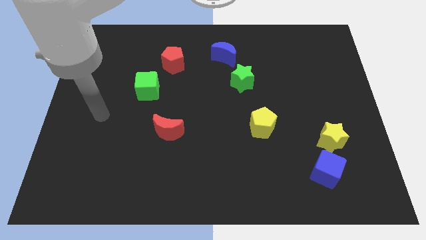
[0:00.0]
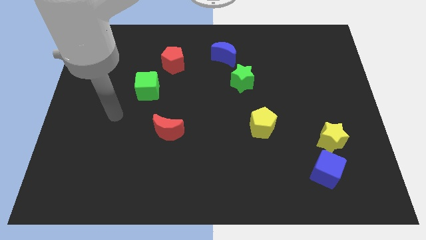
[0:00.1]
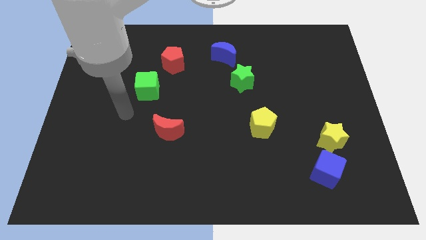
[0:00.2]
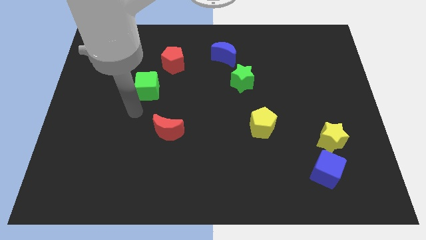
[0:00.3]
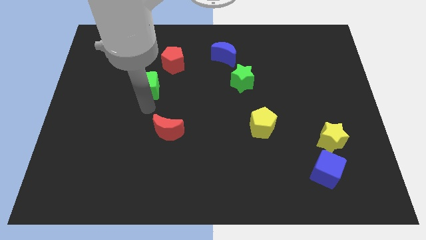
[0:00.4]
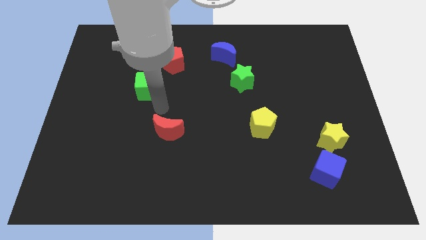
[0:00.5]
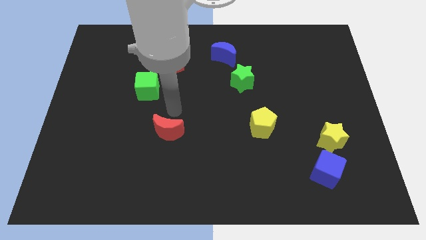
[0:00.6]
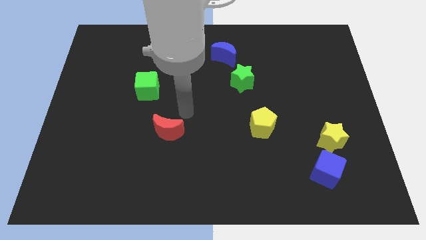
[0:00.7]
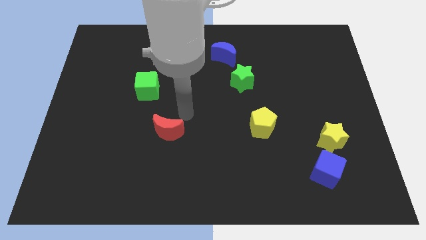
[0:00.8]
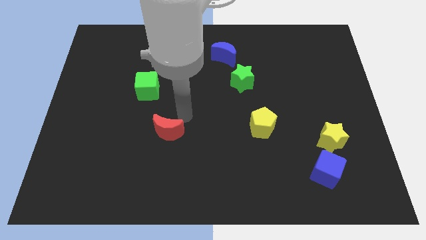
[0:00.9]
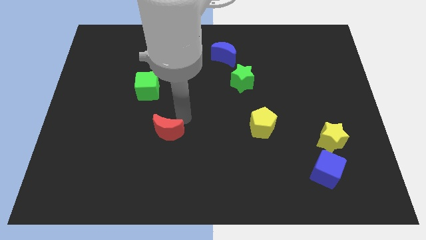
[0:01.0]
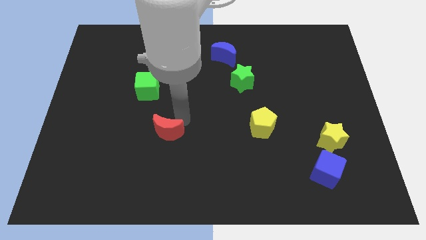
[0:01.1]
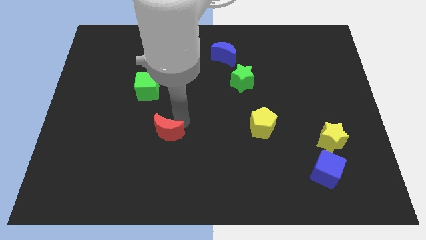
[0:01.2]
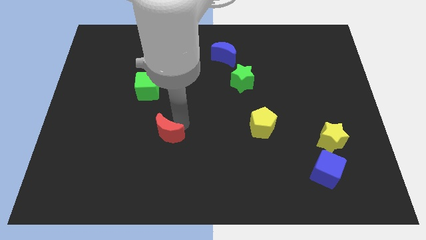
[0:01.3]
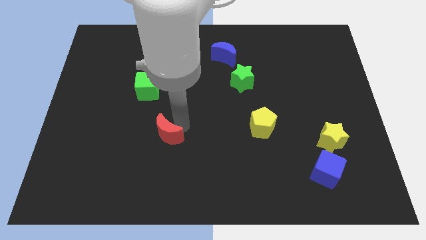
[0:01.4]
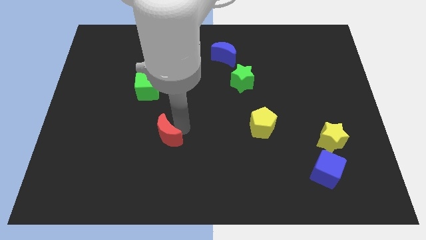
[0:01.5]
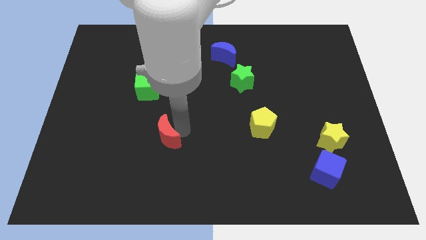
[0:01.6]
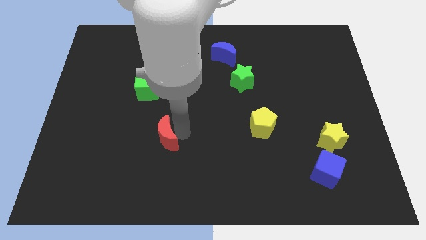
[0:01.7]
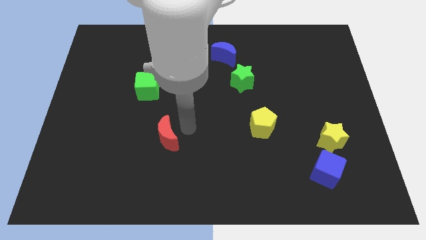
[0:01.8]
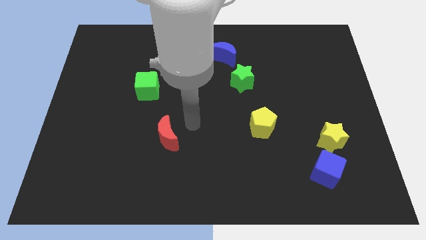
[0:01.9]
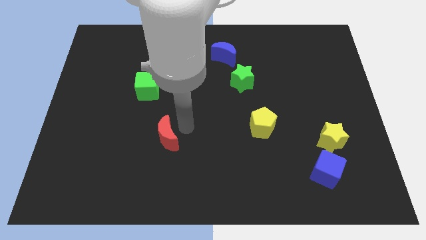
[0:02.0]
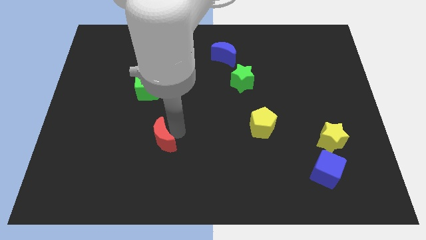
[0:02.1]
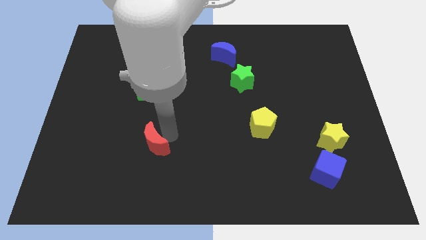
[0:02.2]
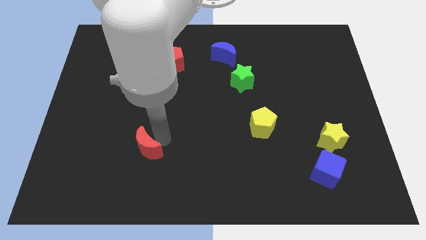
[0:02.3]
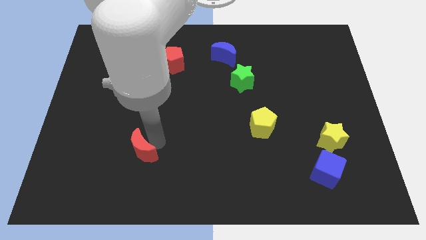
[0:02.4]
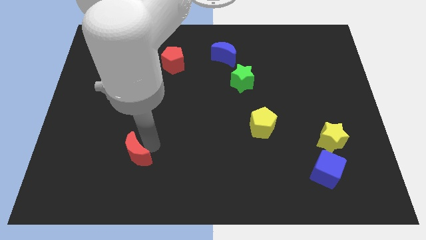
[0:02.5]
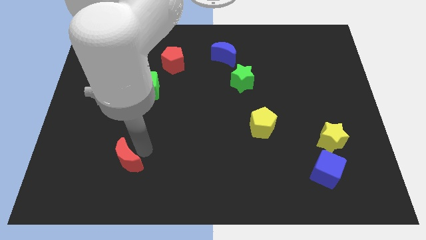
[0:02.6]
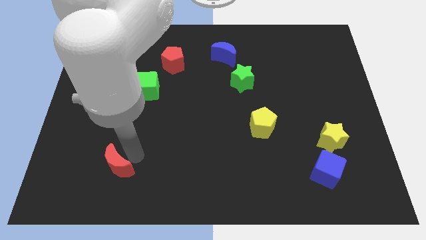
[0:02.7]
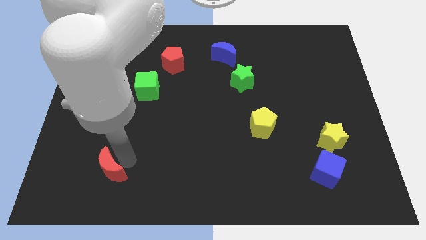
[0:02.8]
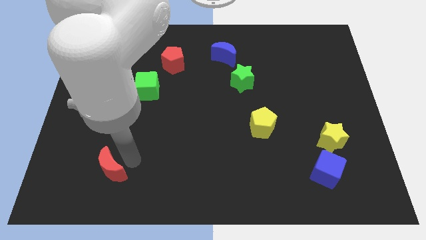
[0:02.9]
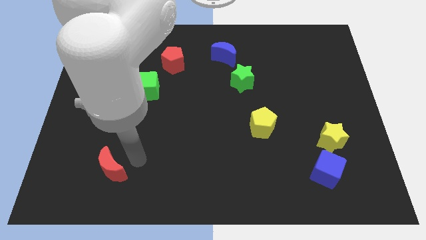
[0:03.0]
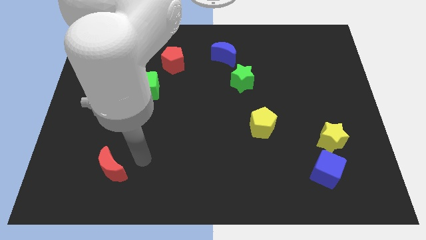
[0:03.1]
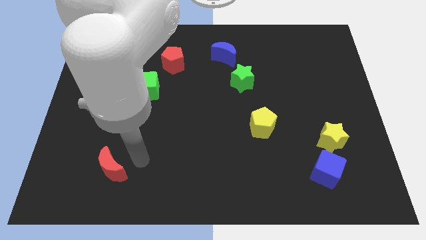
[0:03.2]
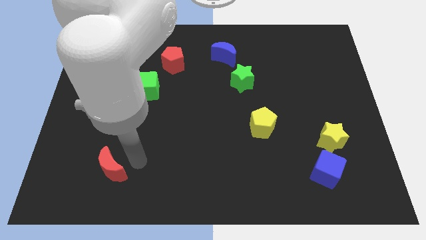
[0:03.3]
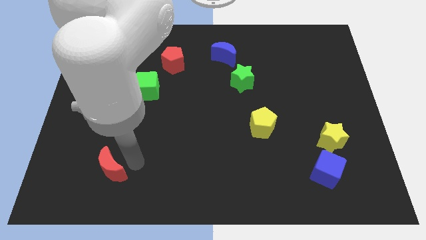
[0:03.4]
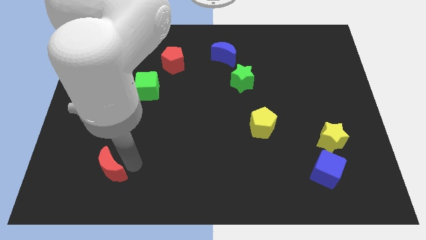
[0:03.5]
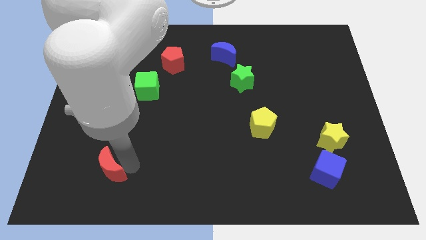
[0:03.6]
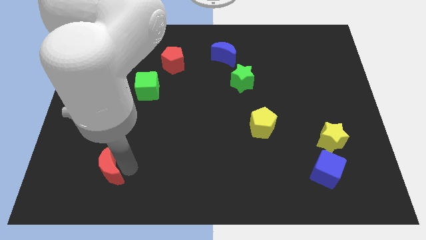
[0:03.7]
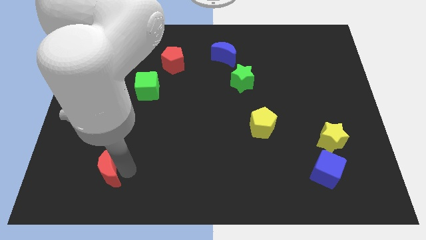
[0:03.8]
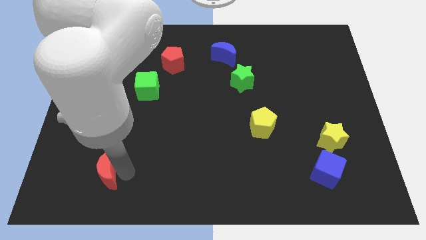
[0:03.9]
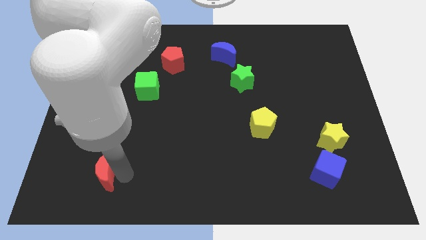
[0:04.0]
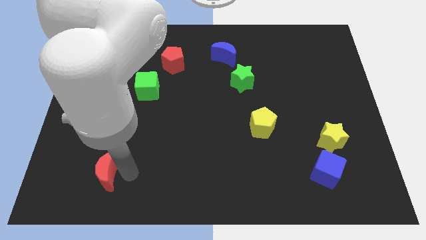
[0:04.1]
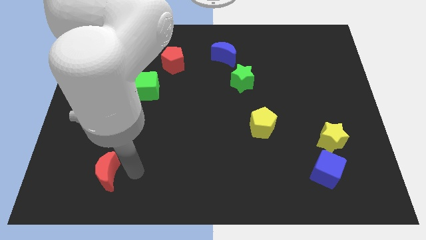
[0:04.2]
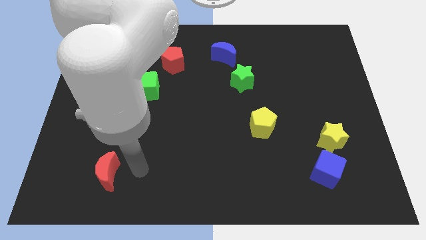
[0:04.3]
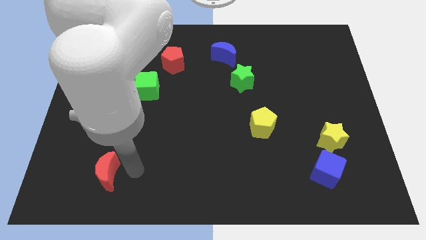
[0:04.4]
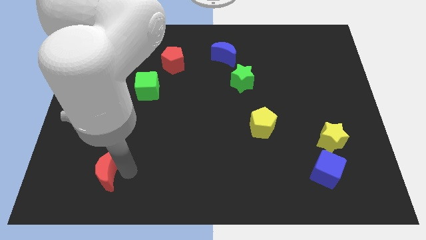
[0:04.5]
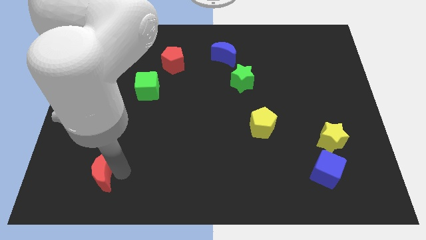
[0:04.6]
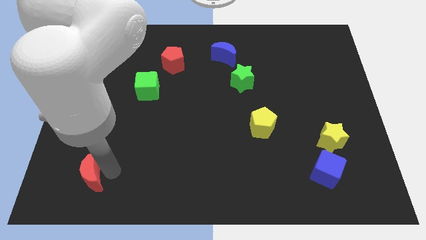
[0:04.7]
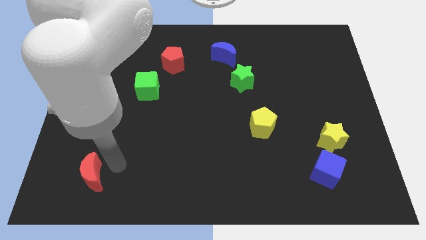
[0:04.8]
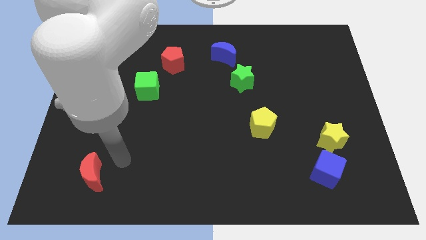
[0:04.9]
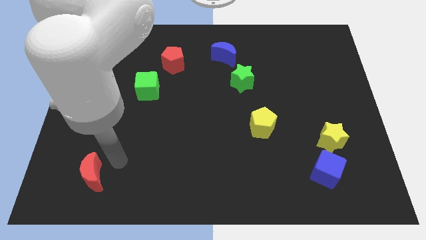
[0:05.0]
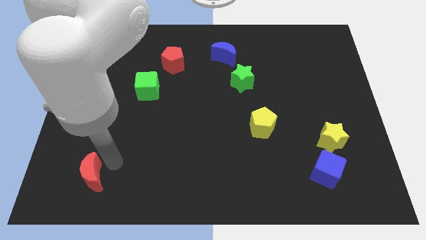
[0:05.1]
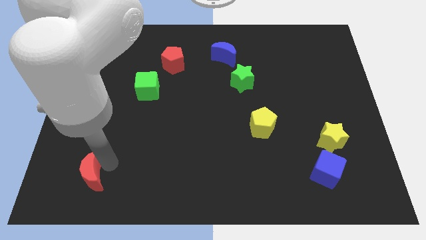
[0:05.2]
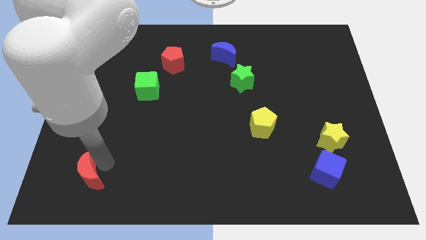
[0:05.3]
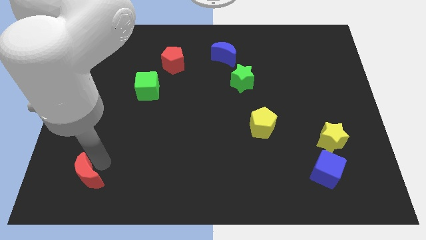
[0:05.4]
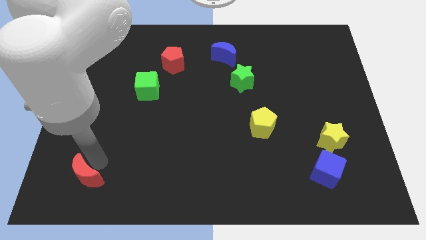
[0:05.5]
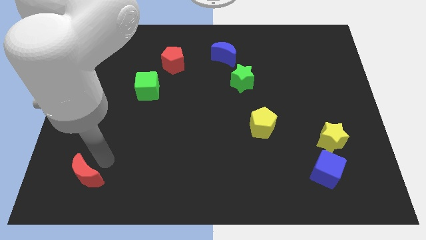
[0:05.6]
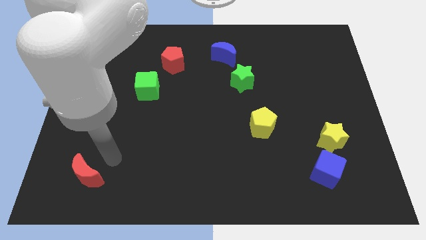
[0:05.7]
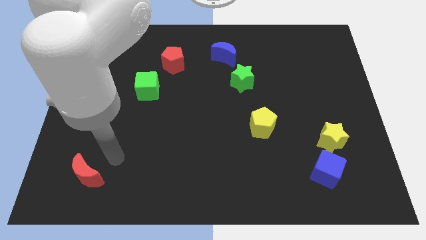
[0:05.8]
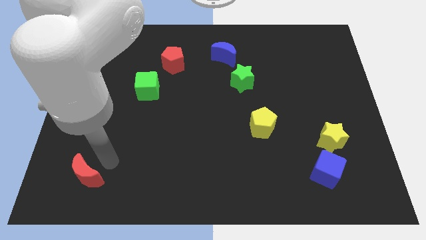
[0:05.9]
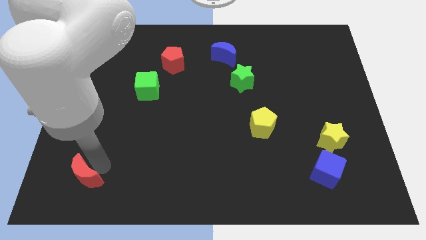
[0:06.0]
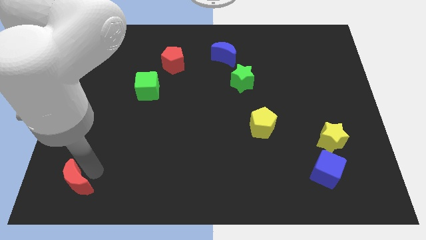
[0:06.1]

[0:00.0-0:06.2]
move the red moon to the bottom left corner
